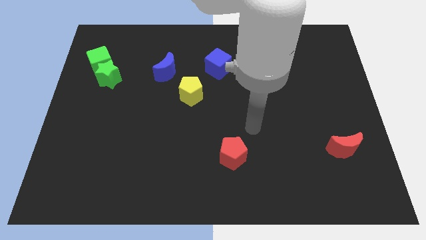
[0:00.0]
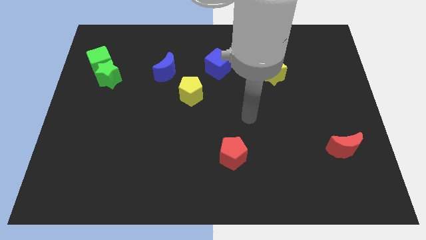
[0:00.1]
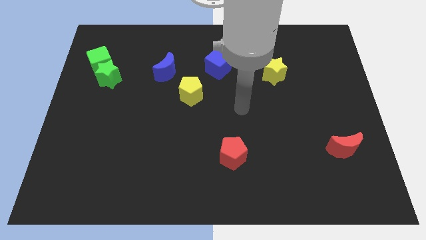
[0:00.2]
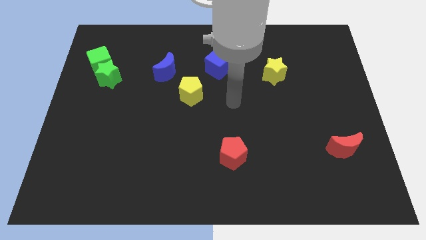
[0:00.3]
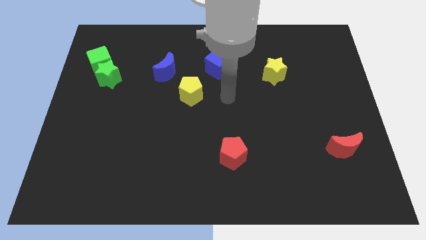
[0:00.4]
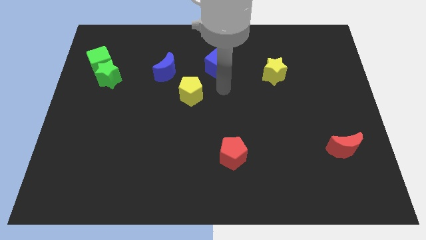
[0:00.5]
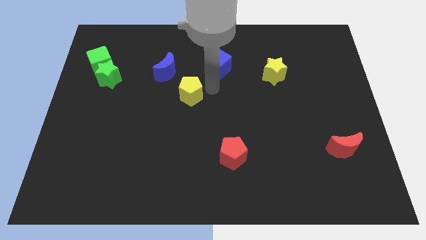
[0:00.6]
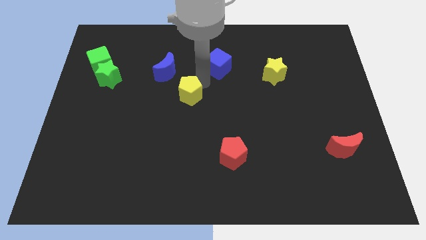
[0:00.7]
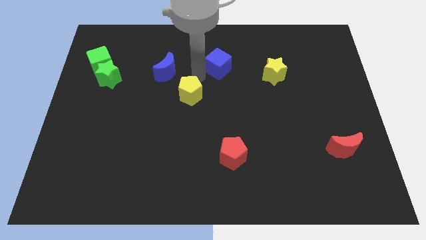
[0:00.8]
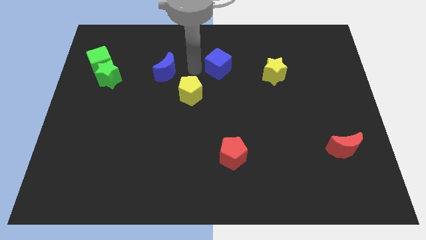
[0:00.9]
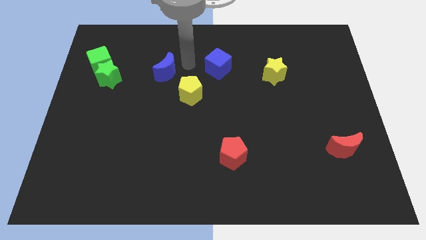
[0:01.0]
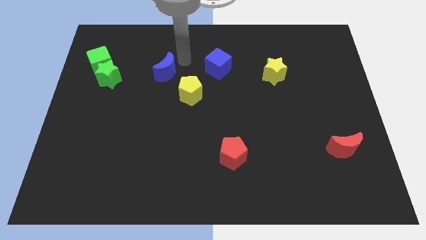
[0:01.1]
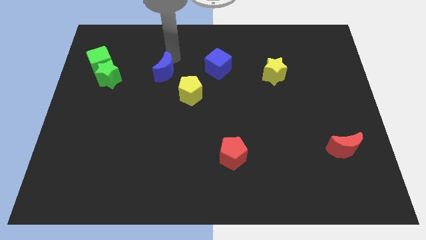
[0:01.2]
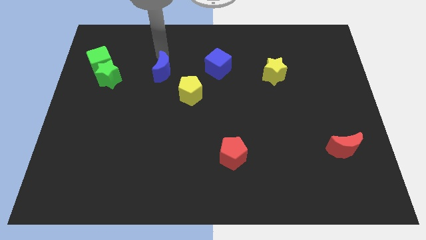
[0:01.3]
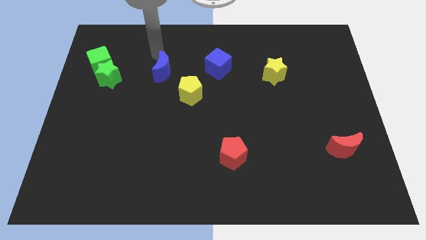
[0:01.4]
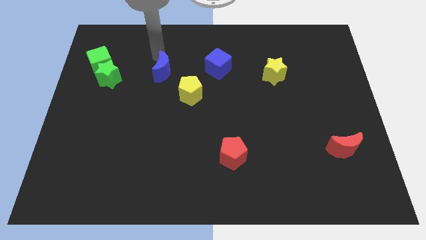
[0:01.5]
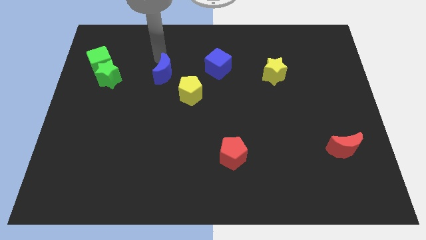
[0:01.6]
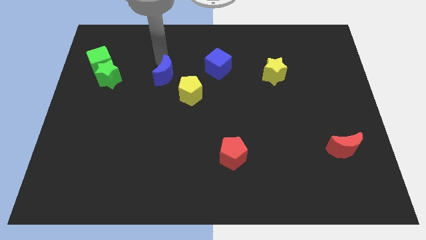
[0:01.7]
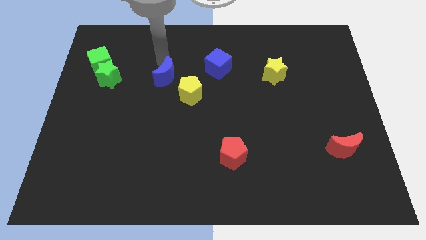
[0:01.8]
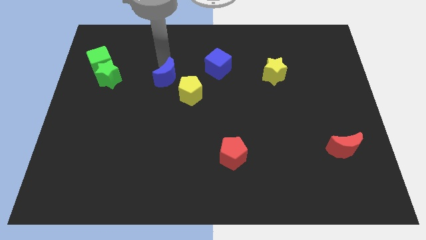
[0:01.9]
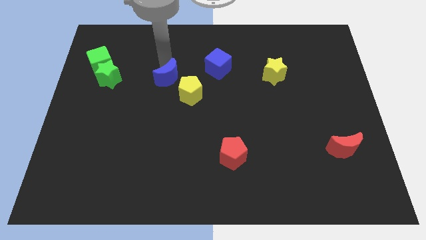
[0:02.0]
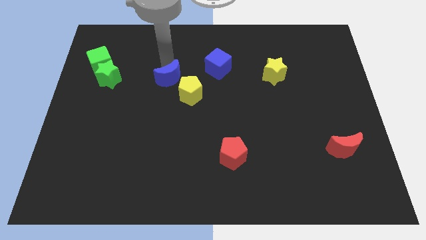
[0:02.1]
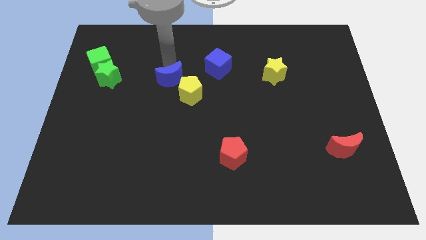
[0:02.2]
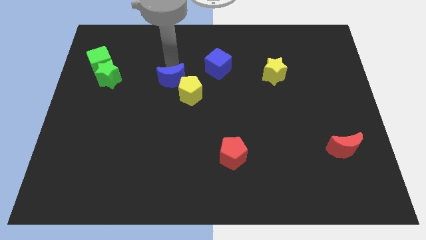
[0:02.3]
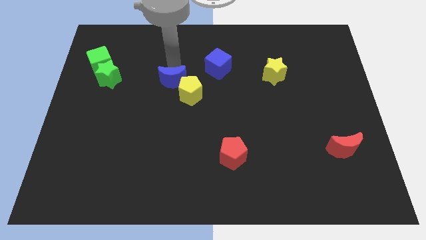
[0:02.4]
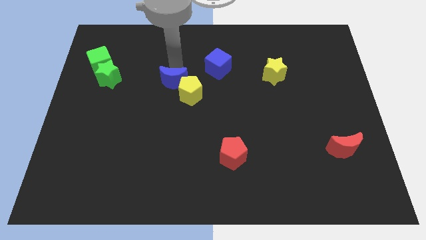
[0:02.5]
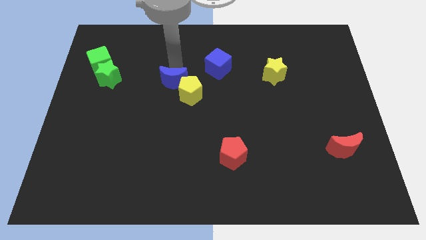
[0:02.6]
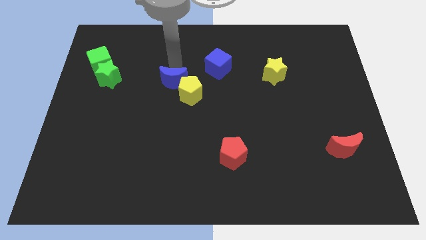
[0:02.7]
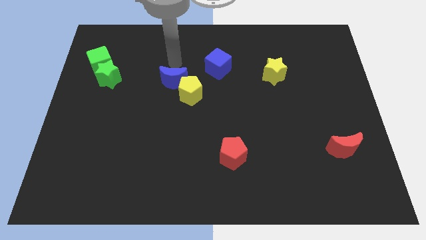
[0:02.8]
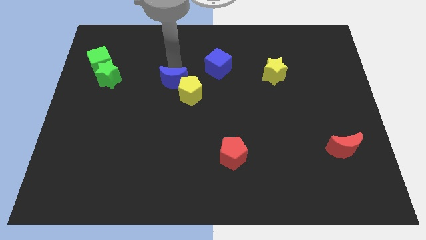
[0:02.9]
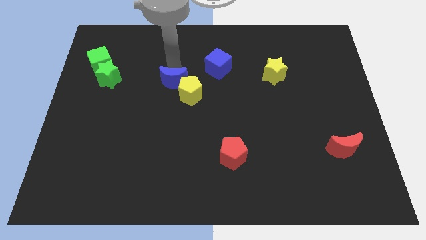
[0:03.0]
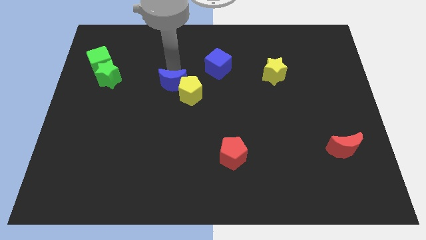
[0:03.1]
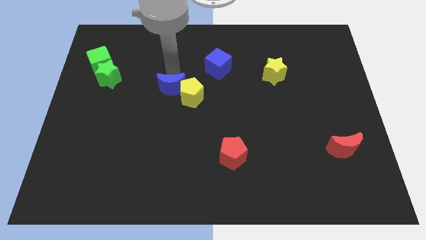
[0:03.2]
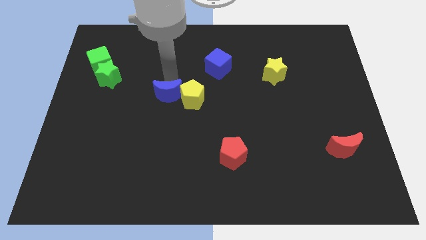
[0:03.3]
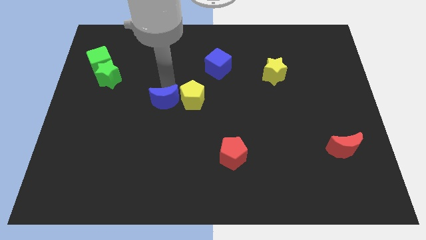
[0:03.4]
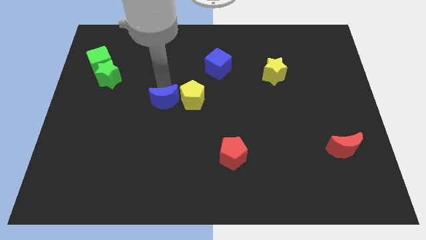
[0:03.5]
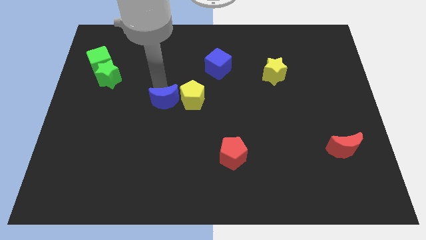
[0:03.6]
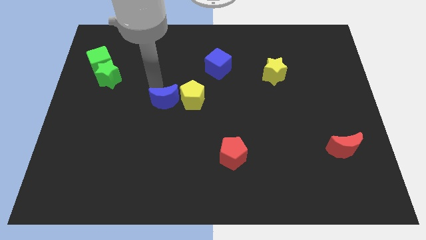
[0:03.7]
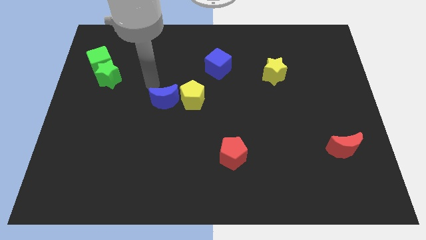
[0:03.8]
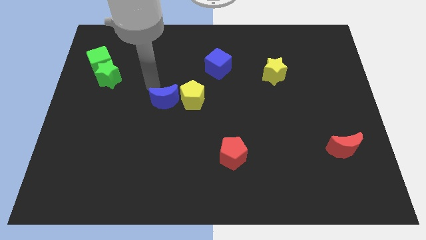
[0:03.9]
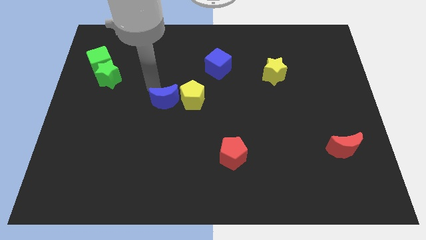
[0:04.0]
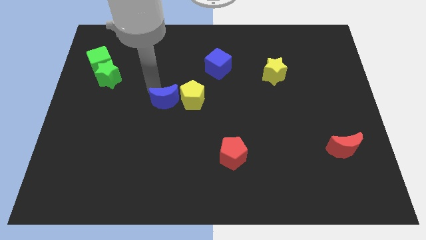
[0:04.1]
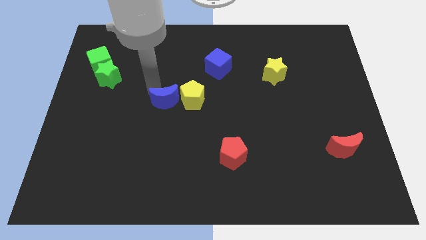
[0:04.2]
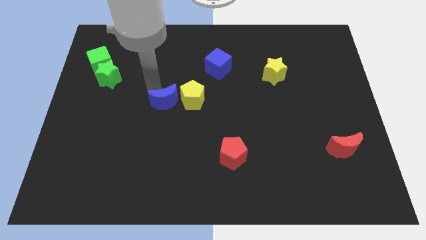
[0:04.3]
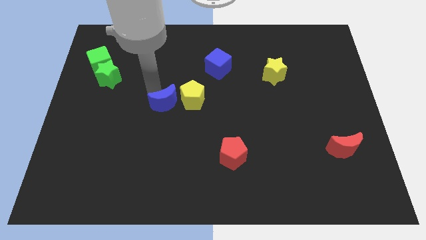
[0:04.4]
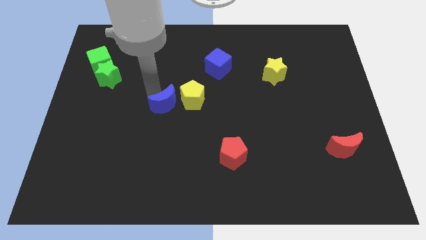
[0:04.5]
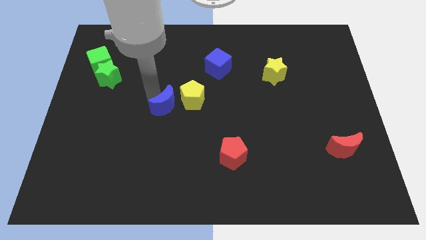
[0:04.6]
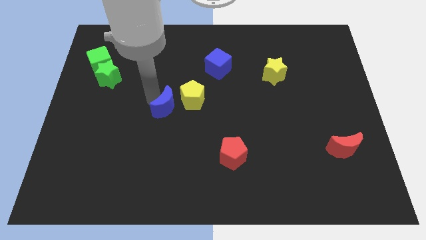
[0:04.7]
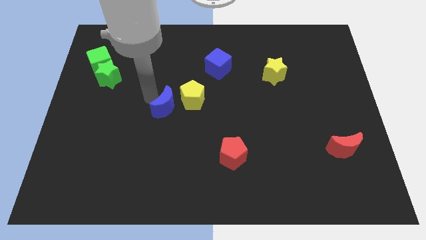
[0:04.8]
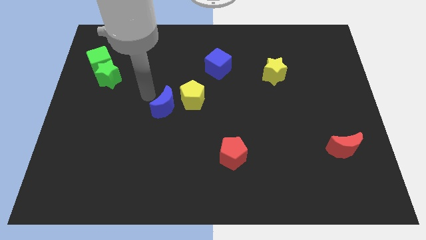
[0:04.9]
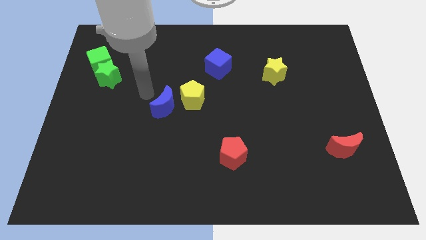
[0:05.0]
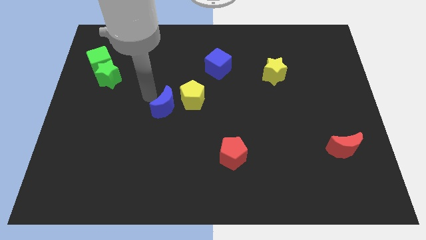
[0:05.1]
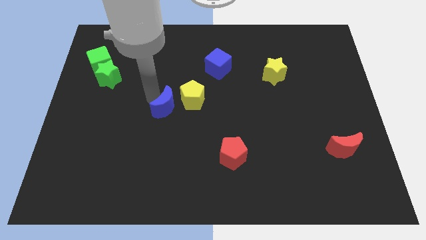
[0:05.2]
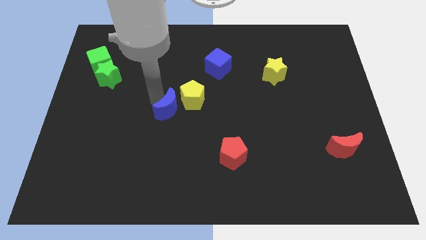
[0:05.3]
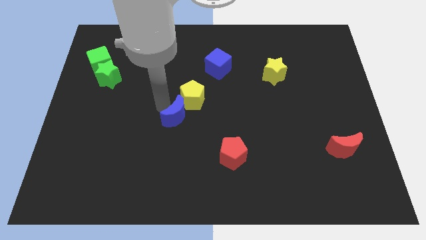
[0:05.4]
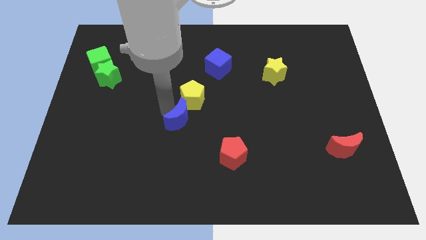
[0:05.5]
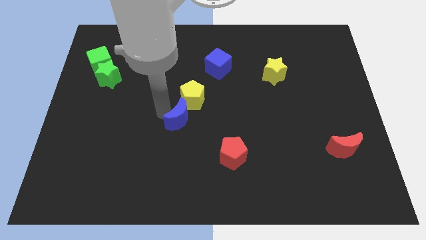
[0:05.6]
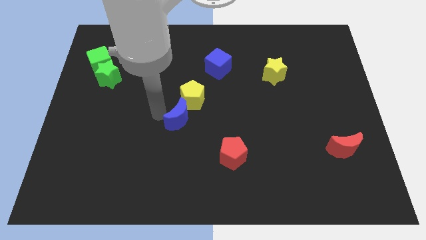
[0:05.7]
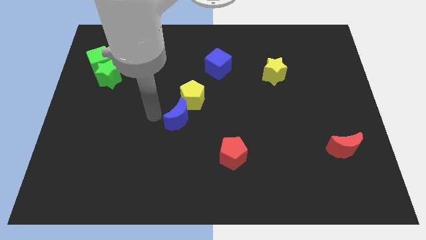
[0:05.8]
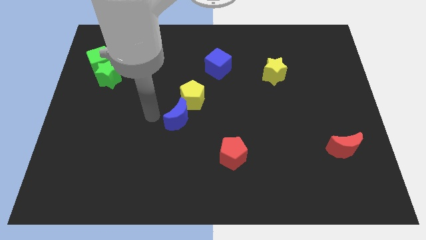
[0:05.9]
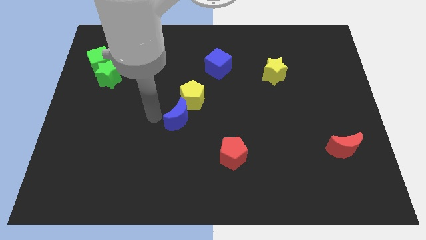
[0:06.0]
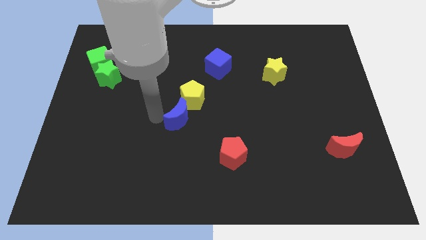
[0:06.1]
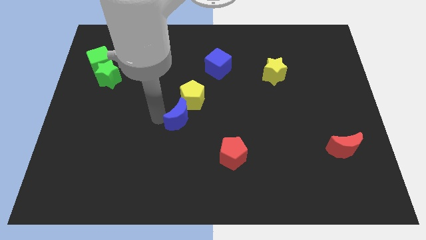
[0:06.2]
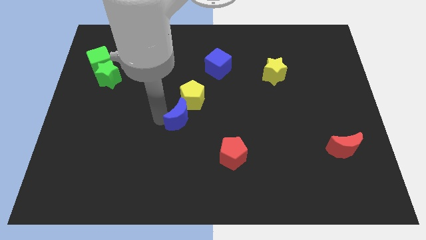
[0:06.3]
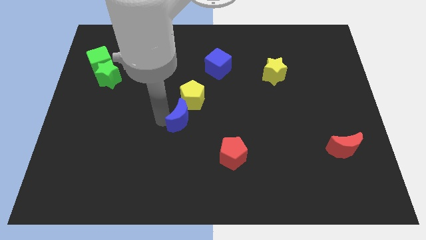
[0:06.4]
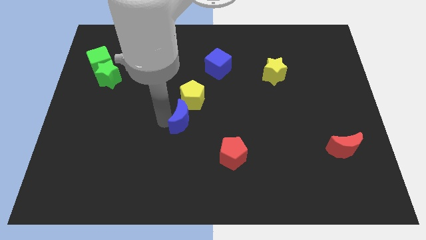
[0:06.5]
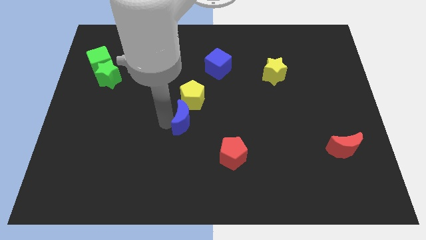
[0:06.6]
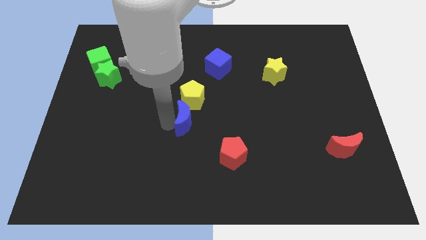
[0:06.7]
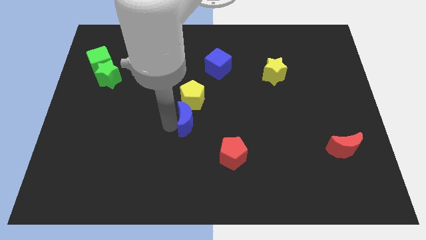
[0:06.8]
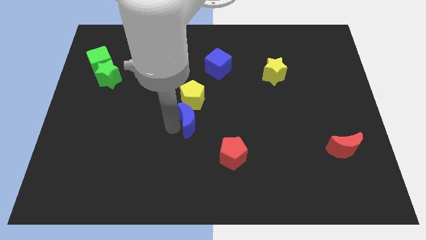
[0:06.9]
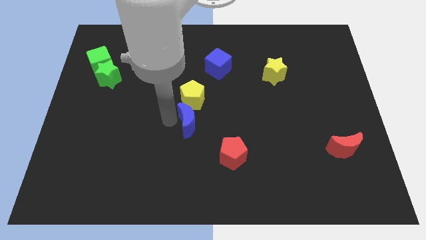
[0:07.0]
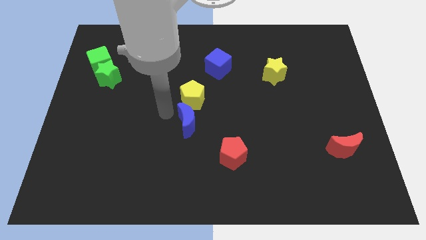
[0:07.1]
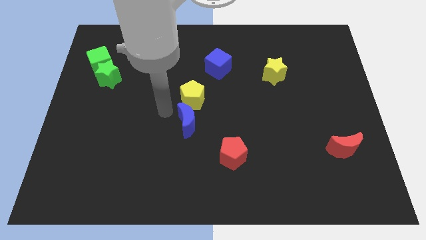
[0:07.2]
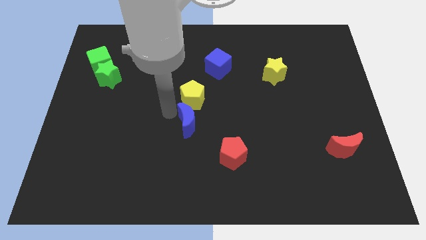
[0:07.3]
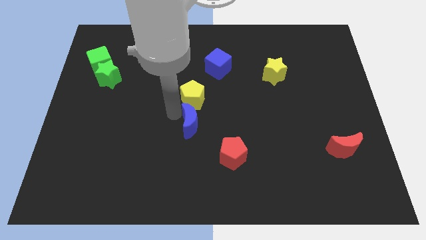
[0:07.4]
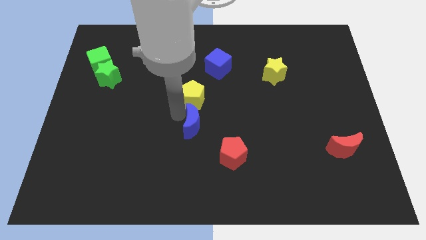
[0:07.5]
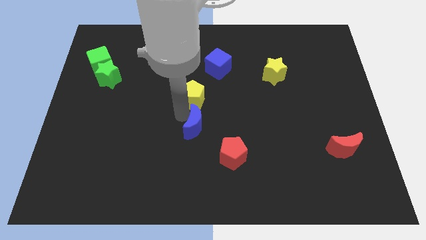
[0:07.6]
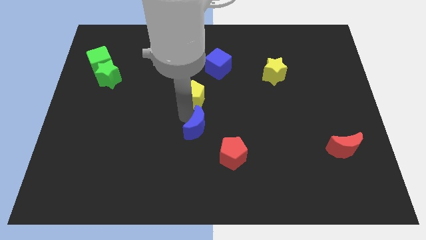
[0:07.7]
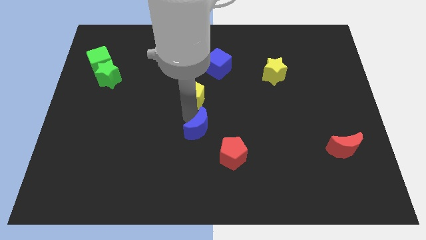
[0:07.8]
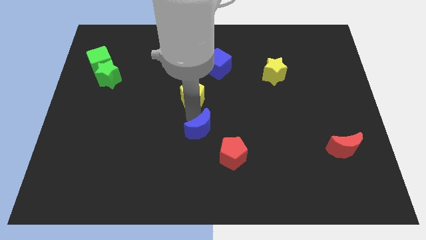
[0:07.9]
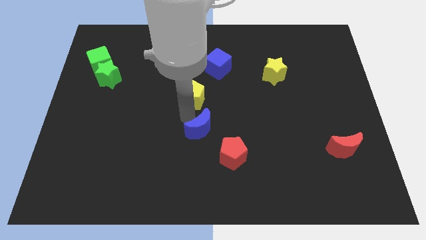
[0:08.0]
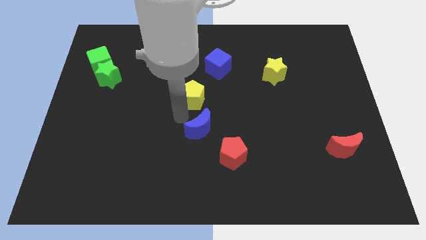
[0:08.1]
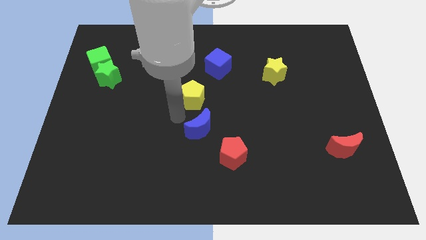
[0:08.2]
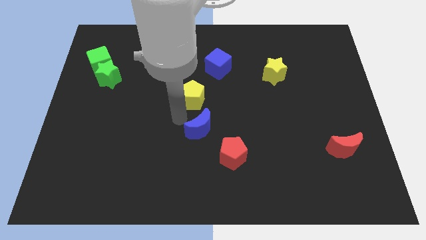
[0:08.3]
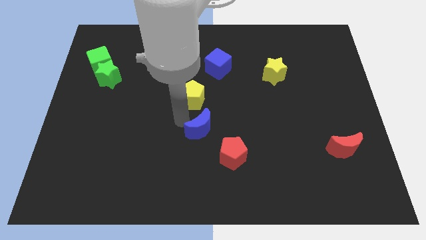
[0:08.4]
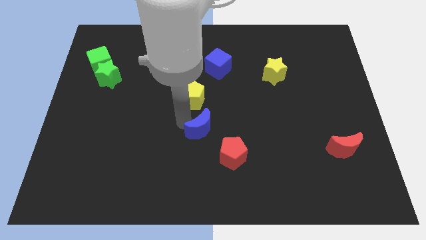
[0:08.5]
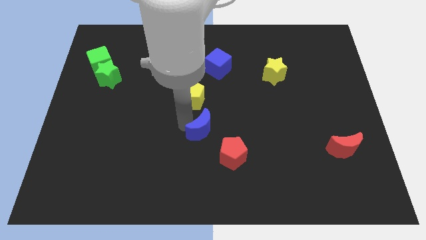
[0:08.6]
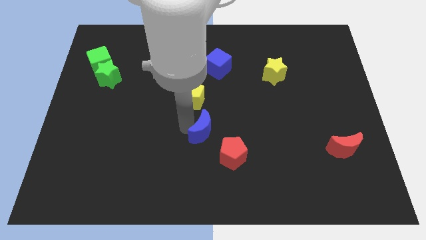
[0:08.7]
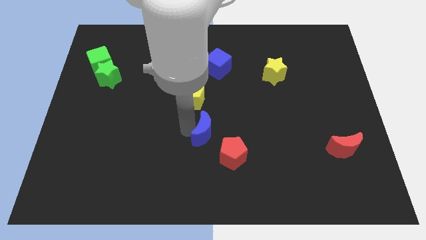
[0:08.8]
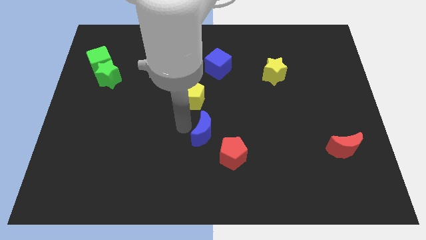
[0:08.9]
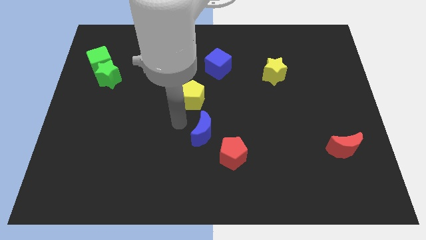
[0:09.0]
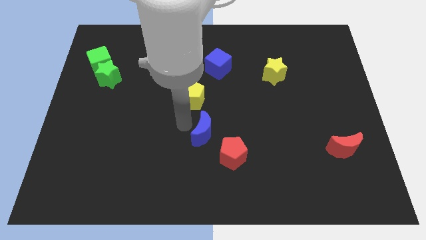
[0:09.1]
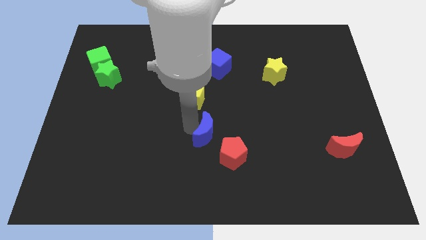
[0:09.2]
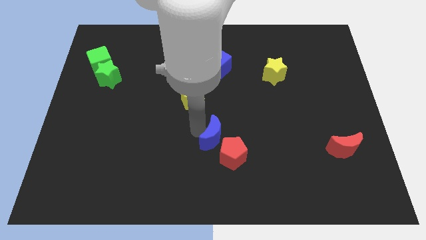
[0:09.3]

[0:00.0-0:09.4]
push the blue moon close to the red pentagon
